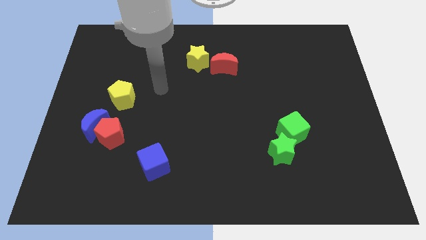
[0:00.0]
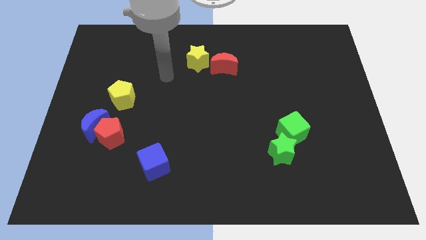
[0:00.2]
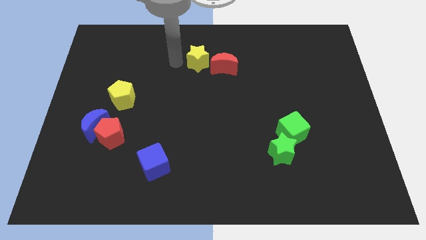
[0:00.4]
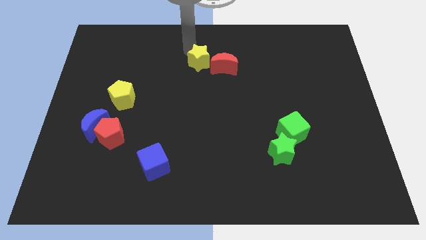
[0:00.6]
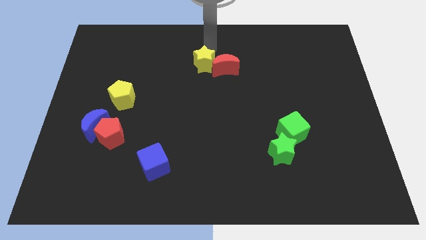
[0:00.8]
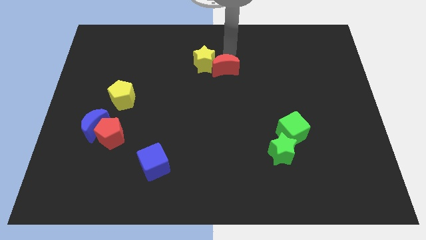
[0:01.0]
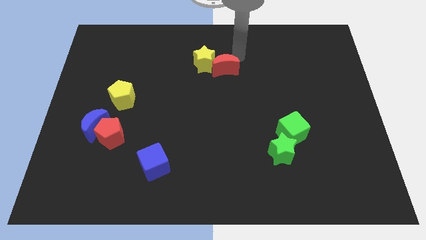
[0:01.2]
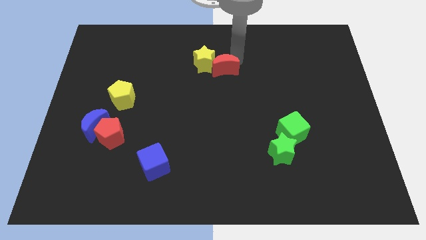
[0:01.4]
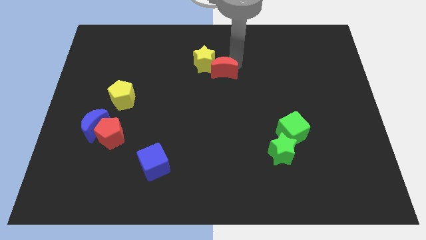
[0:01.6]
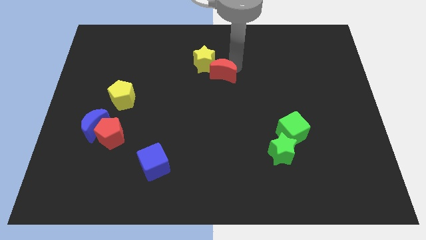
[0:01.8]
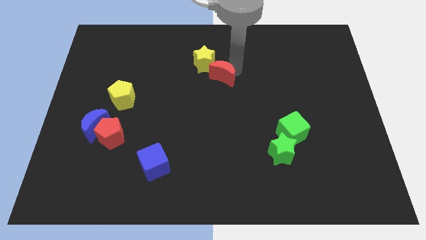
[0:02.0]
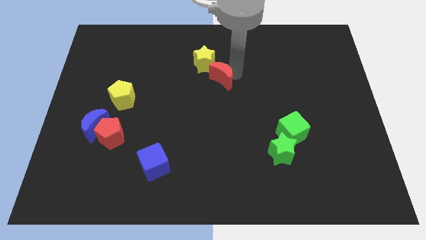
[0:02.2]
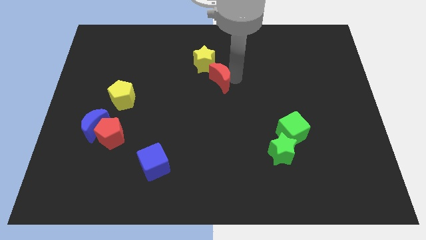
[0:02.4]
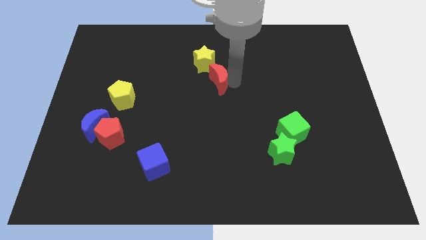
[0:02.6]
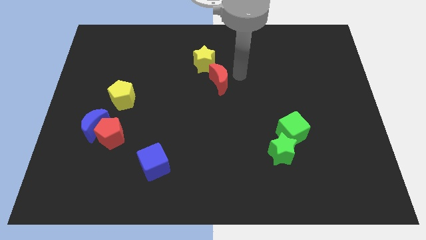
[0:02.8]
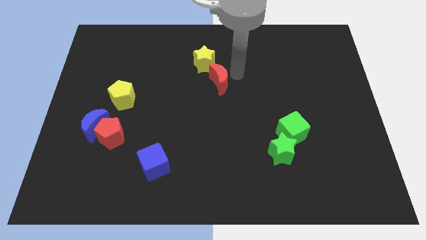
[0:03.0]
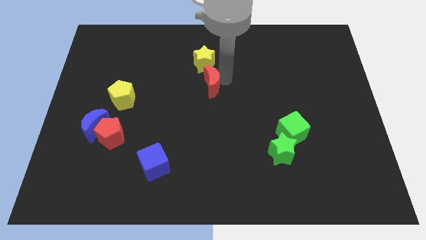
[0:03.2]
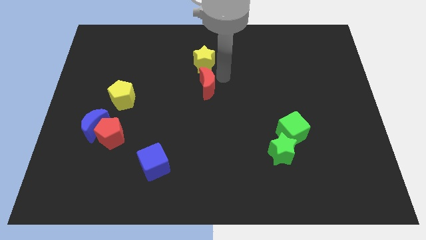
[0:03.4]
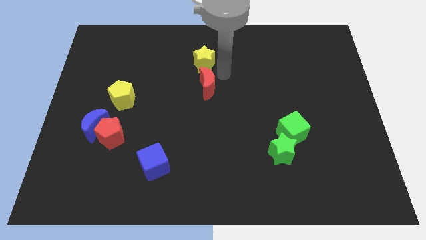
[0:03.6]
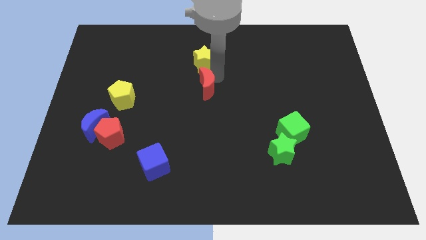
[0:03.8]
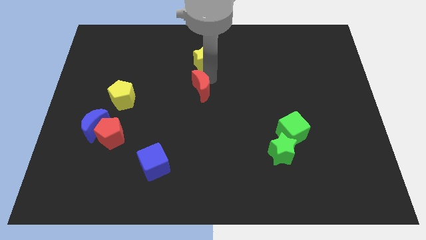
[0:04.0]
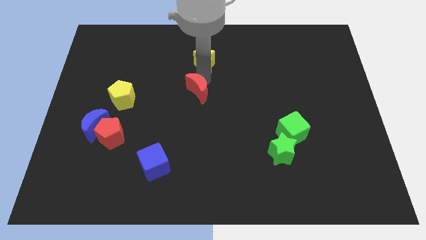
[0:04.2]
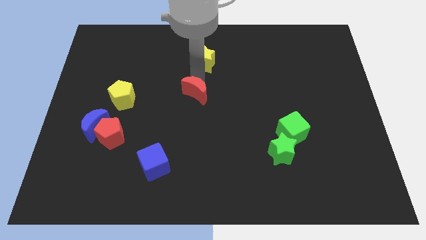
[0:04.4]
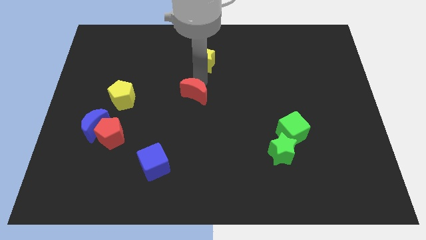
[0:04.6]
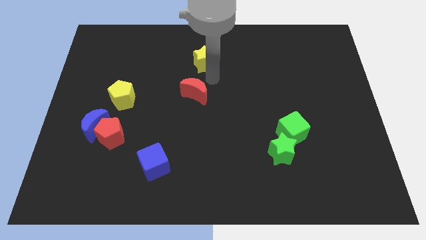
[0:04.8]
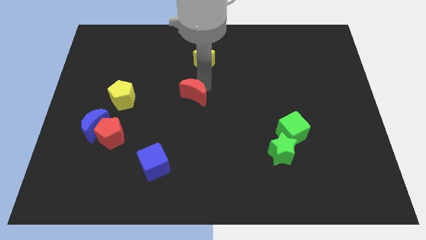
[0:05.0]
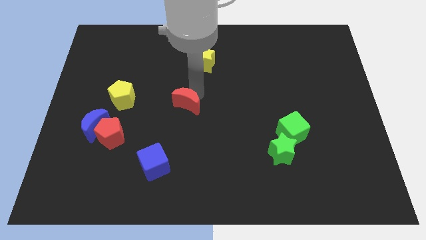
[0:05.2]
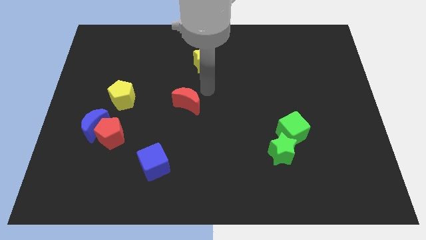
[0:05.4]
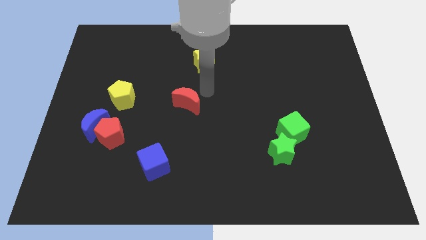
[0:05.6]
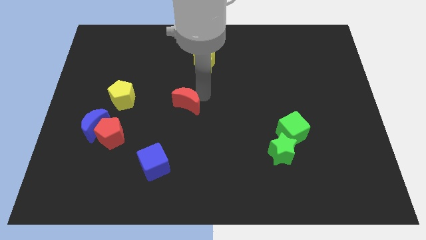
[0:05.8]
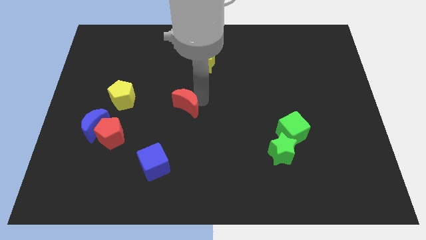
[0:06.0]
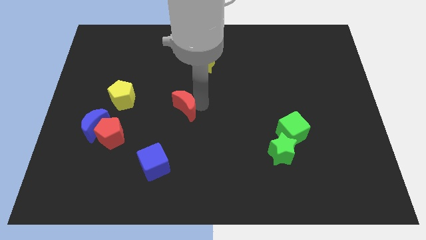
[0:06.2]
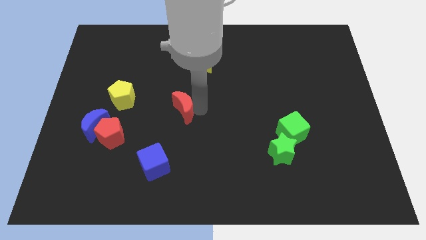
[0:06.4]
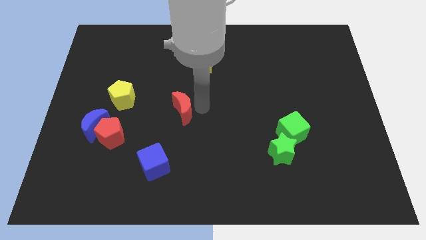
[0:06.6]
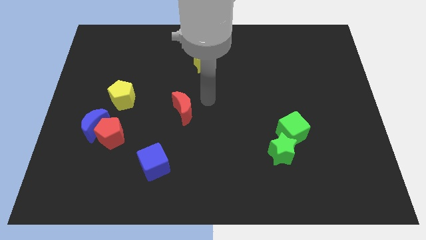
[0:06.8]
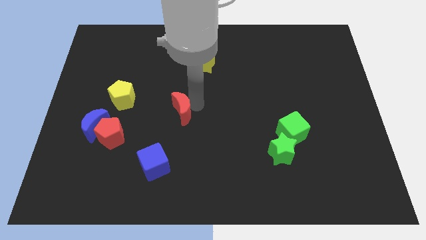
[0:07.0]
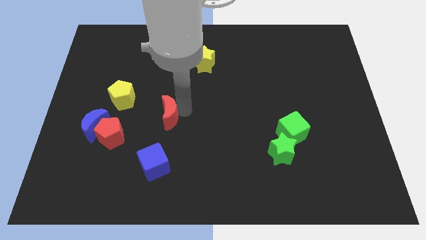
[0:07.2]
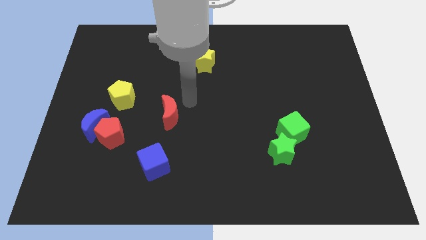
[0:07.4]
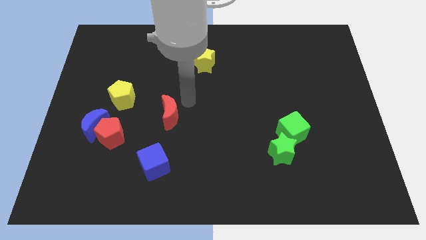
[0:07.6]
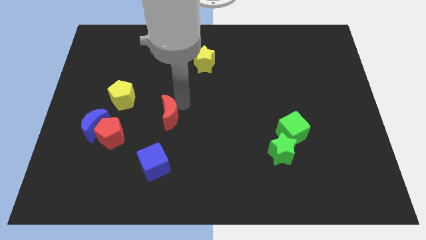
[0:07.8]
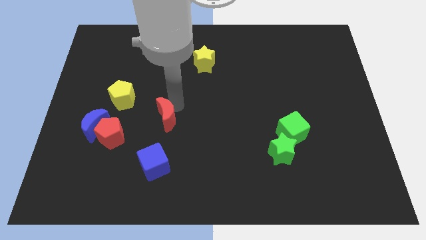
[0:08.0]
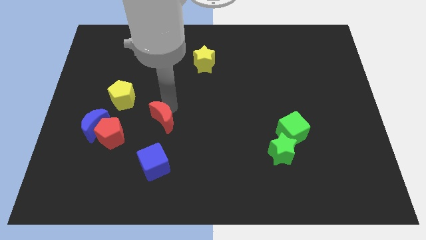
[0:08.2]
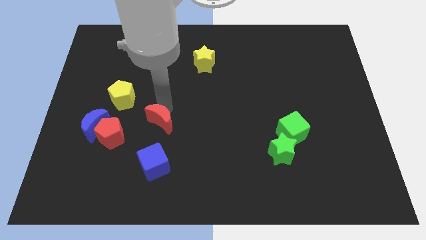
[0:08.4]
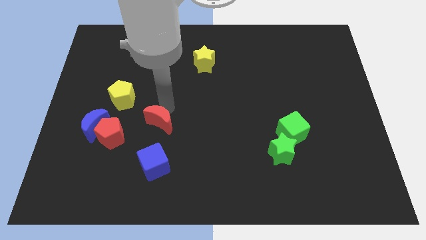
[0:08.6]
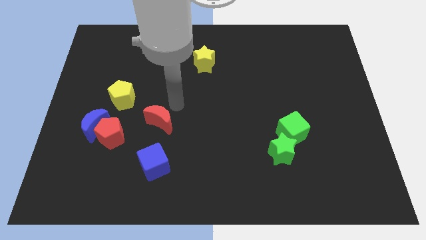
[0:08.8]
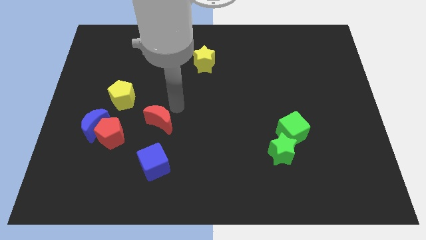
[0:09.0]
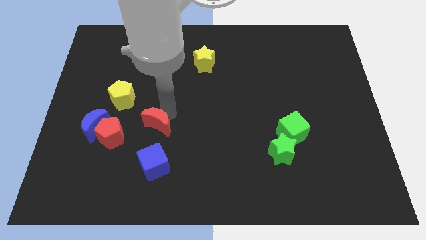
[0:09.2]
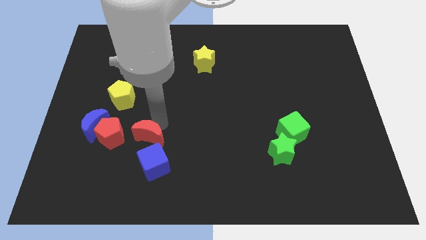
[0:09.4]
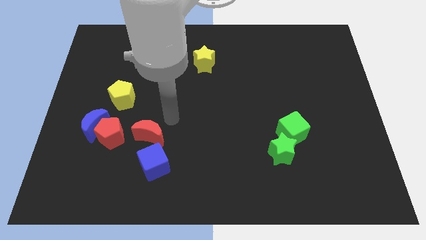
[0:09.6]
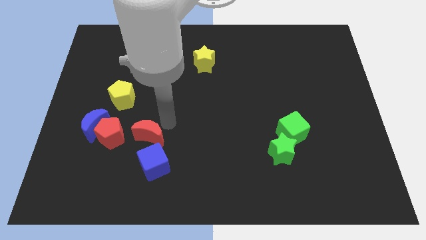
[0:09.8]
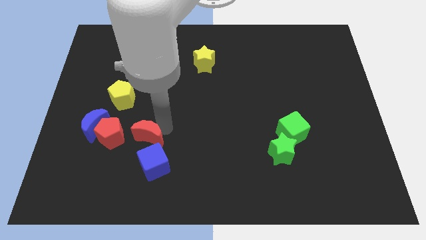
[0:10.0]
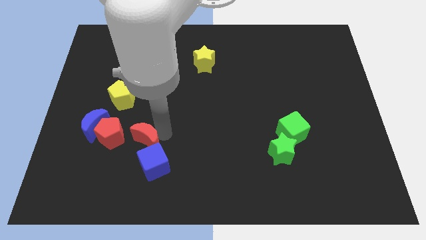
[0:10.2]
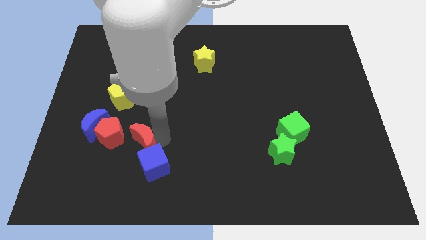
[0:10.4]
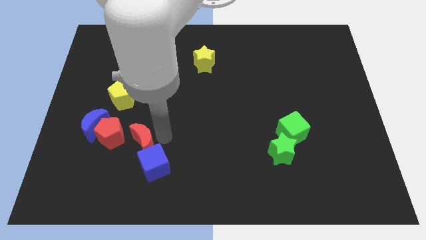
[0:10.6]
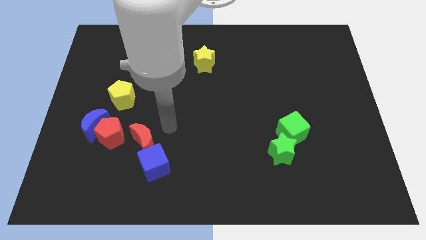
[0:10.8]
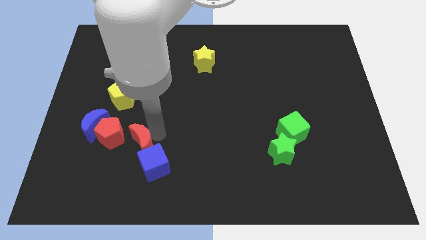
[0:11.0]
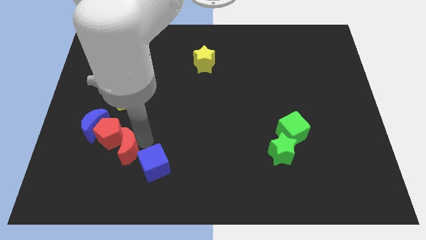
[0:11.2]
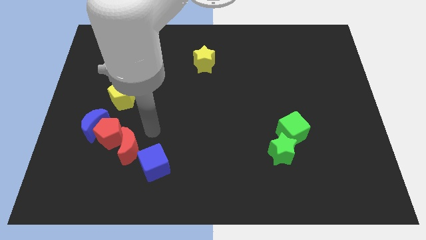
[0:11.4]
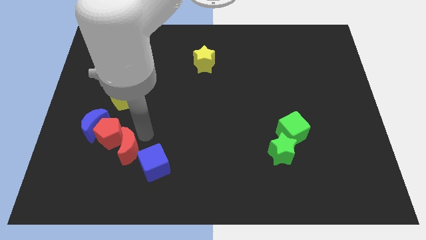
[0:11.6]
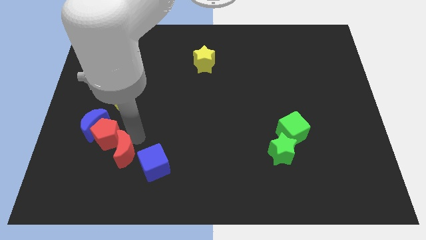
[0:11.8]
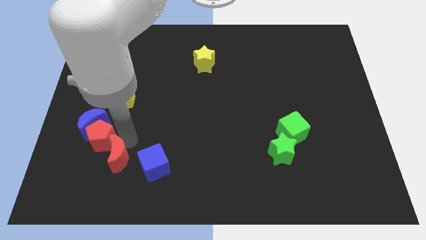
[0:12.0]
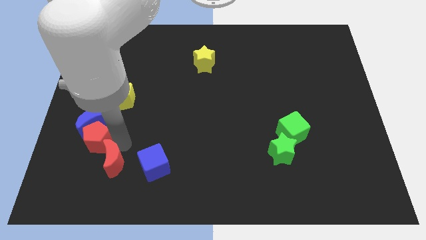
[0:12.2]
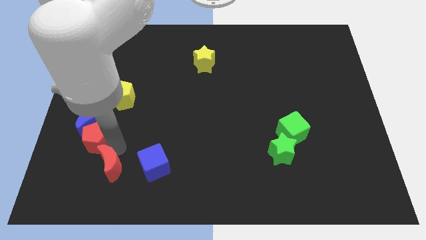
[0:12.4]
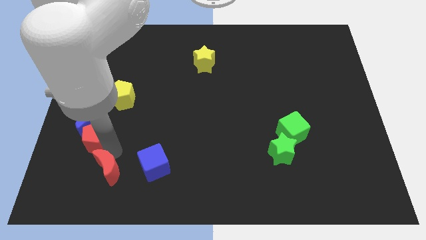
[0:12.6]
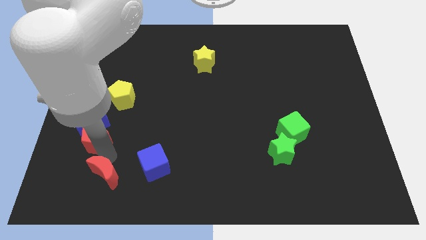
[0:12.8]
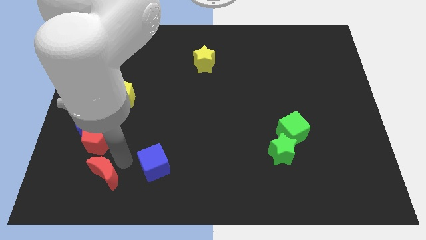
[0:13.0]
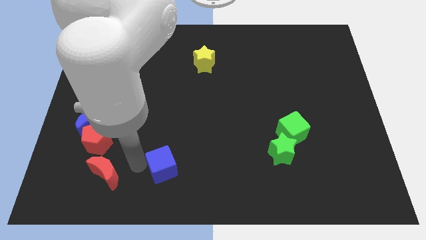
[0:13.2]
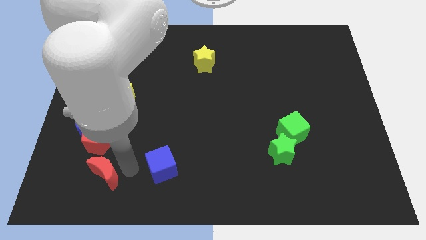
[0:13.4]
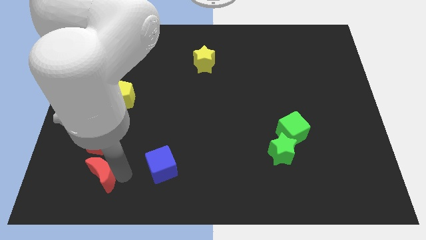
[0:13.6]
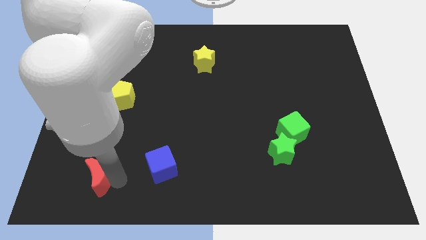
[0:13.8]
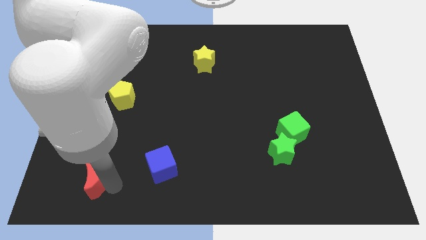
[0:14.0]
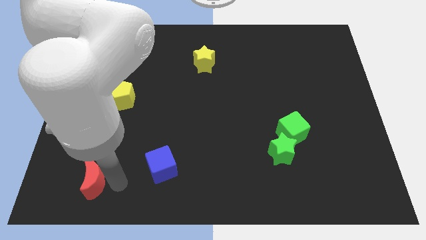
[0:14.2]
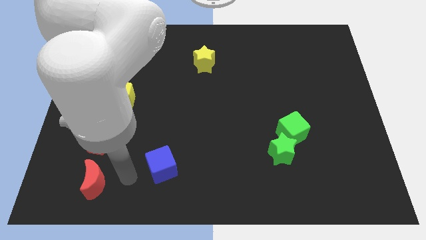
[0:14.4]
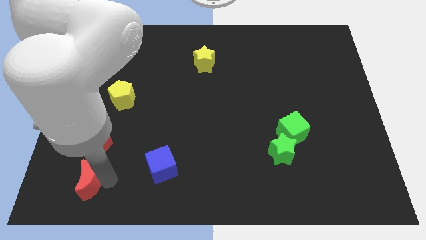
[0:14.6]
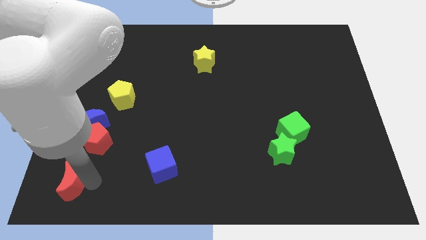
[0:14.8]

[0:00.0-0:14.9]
move the red moon to the bottom left corner
